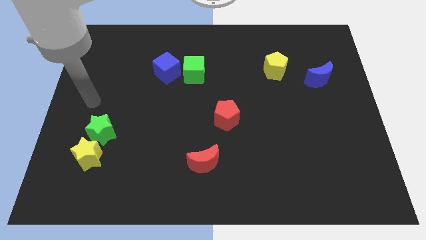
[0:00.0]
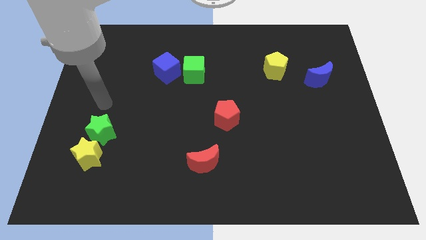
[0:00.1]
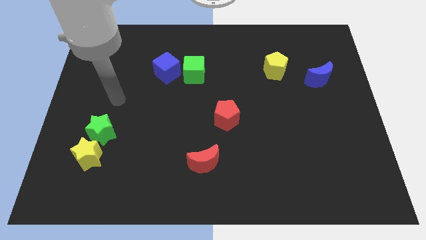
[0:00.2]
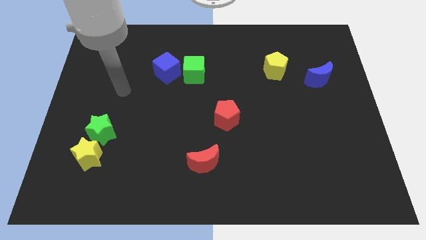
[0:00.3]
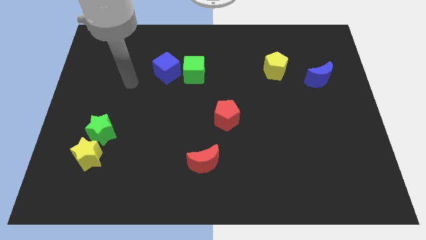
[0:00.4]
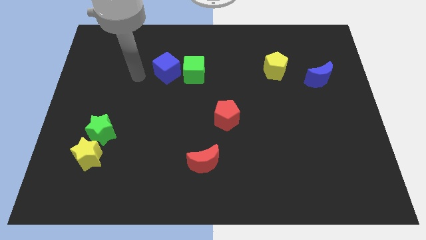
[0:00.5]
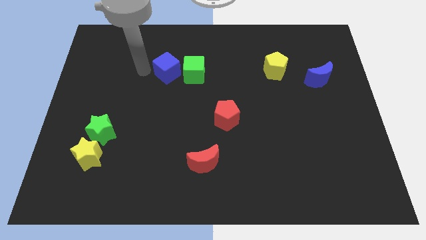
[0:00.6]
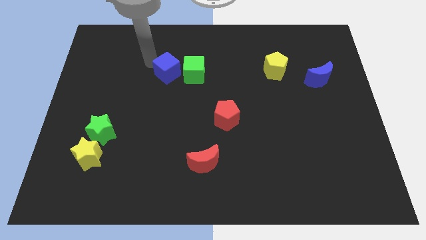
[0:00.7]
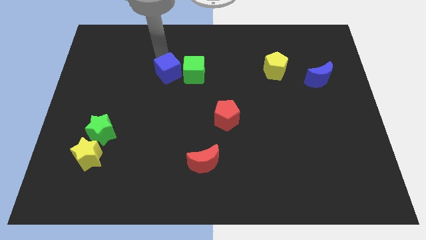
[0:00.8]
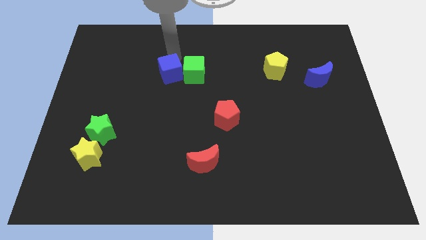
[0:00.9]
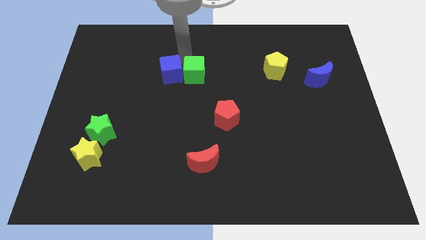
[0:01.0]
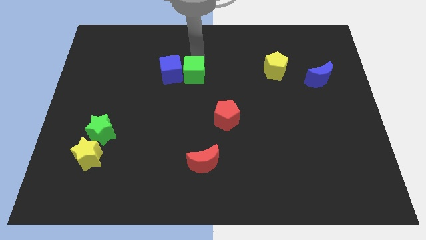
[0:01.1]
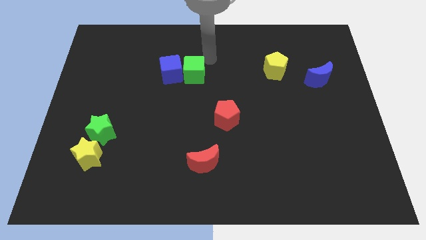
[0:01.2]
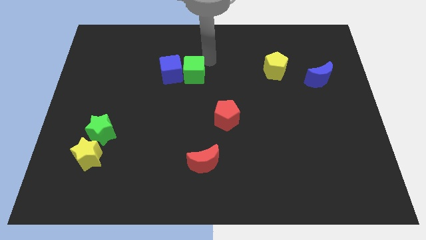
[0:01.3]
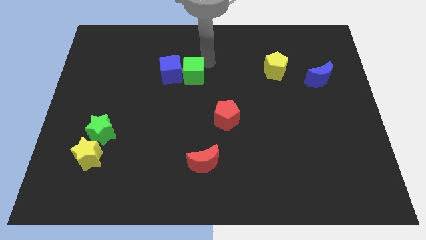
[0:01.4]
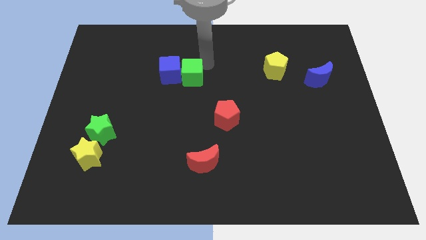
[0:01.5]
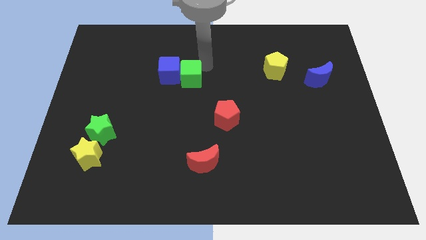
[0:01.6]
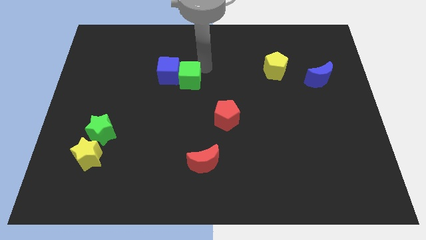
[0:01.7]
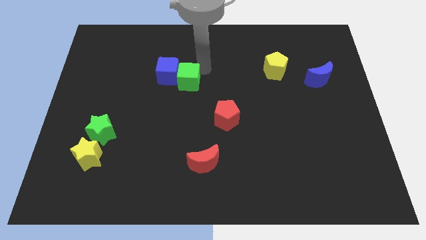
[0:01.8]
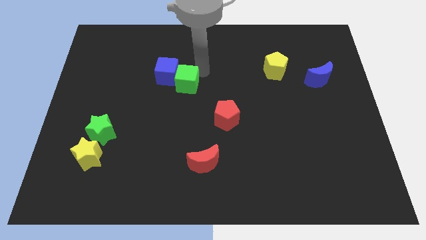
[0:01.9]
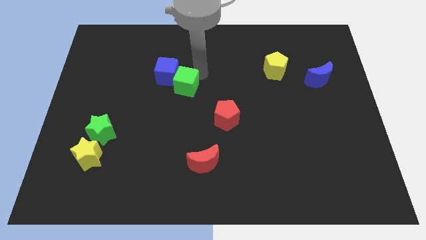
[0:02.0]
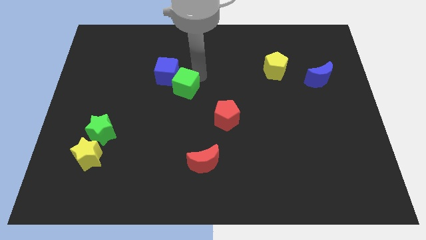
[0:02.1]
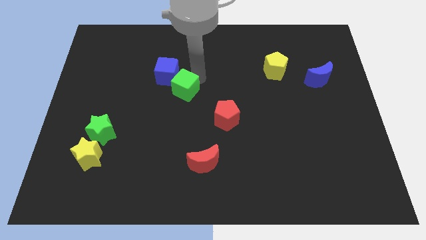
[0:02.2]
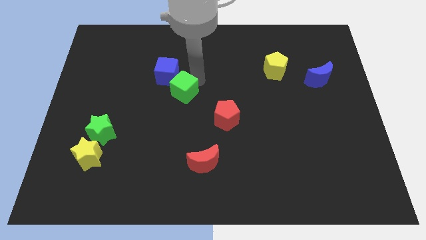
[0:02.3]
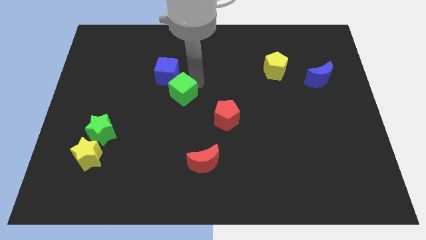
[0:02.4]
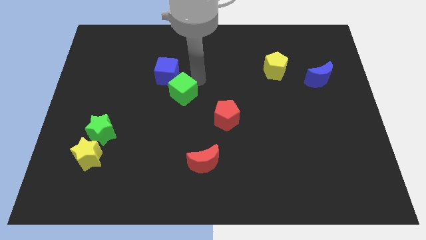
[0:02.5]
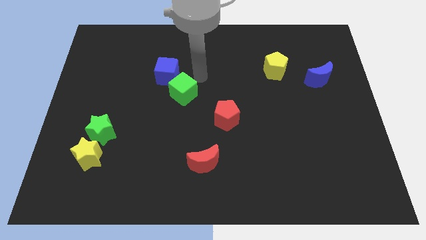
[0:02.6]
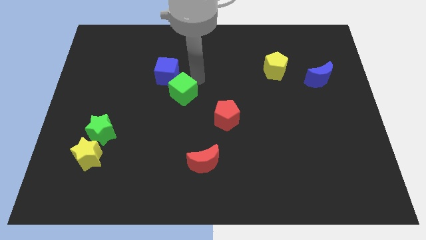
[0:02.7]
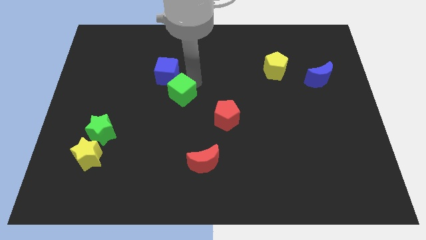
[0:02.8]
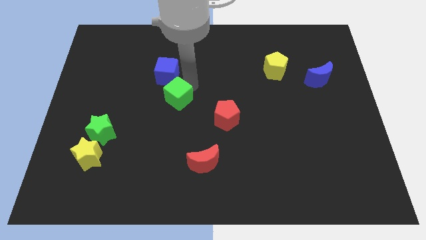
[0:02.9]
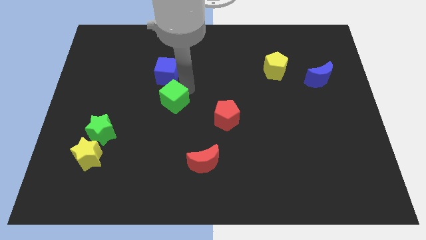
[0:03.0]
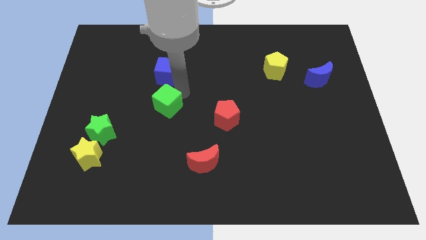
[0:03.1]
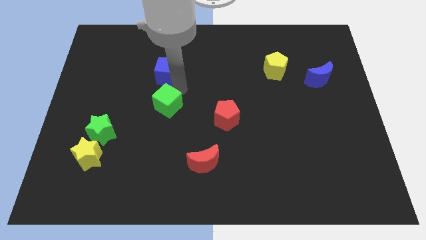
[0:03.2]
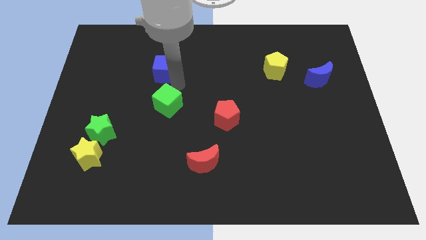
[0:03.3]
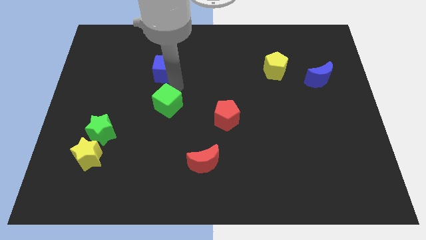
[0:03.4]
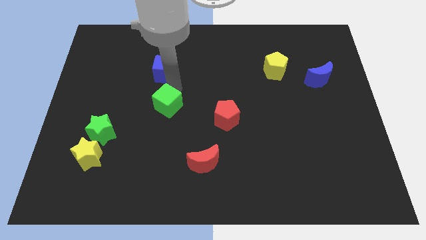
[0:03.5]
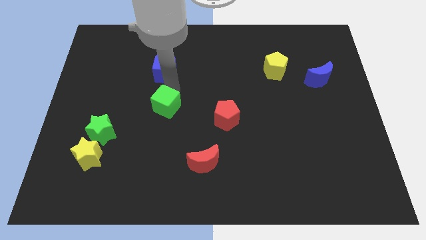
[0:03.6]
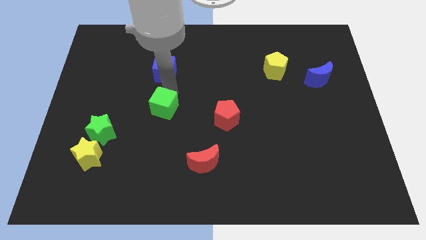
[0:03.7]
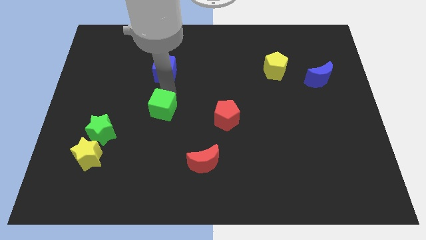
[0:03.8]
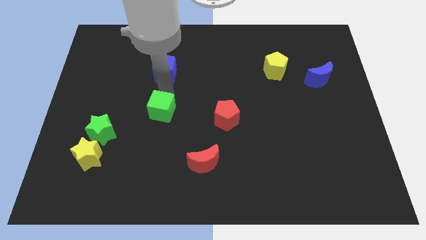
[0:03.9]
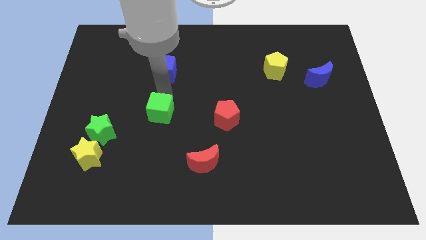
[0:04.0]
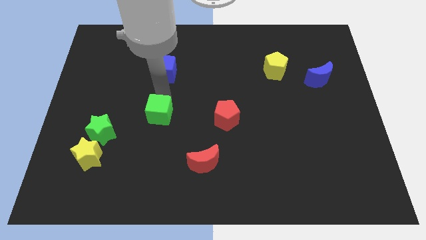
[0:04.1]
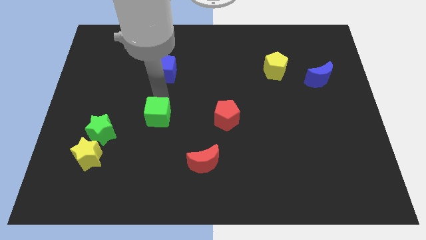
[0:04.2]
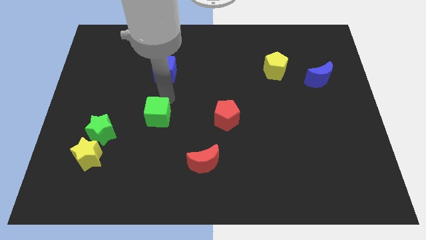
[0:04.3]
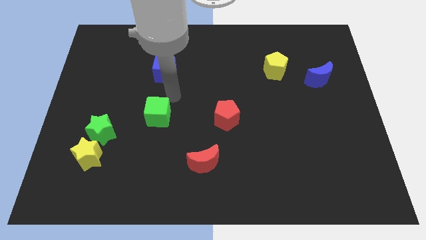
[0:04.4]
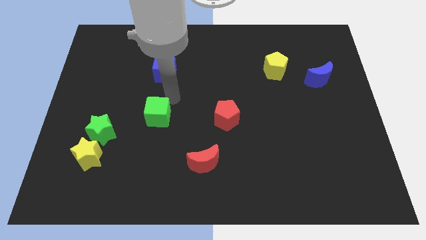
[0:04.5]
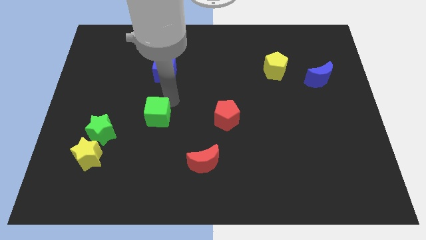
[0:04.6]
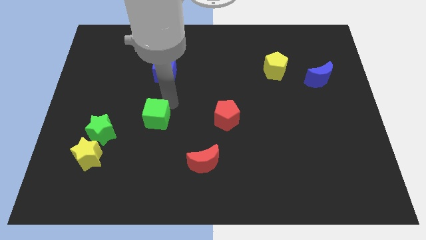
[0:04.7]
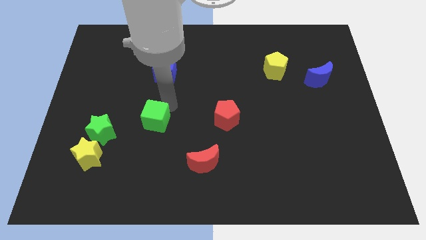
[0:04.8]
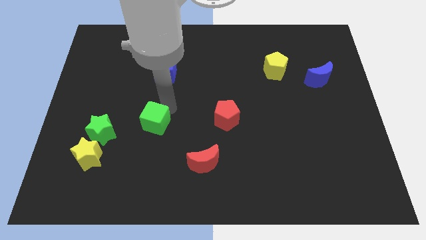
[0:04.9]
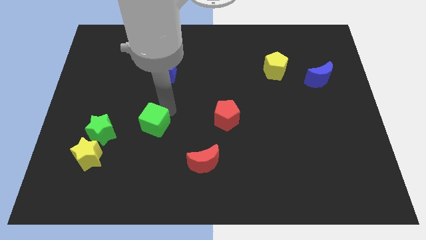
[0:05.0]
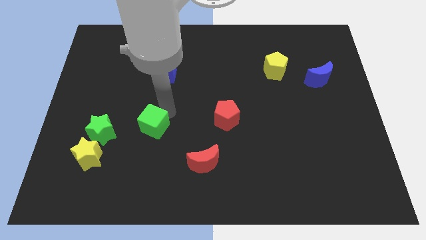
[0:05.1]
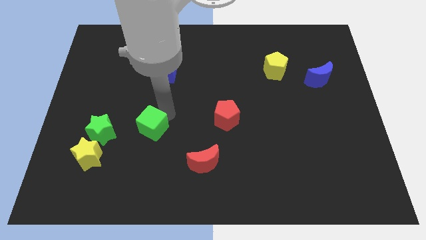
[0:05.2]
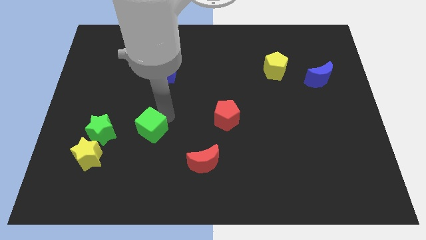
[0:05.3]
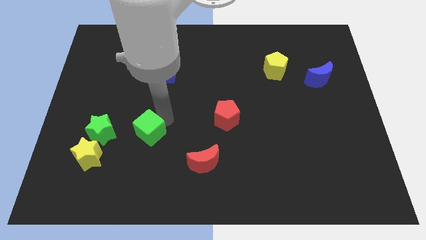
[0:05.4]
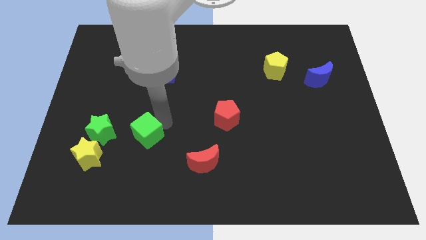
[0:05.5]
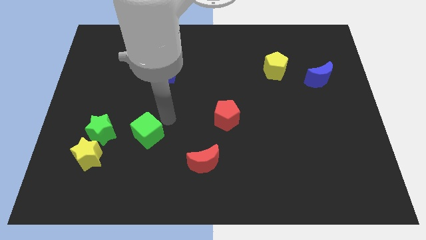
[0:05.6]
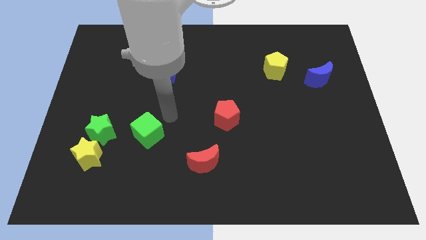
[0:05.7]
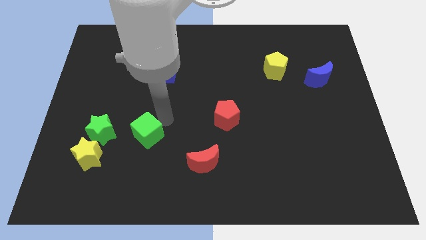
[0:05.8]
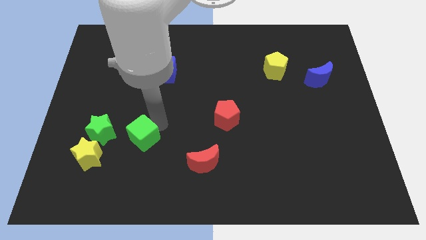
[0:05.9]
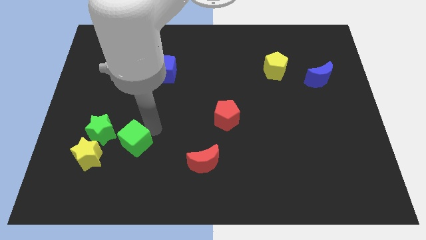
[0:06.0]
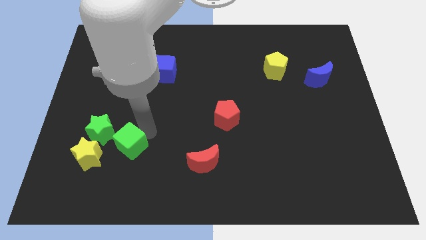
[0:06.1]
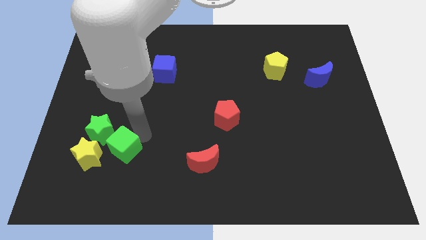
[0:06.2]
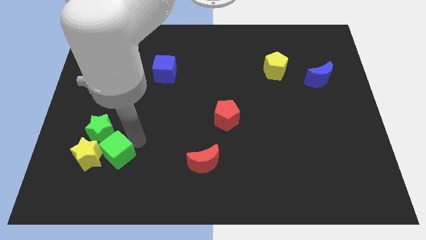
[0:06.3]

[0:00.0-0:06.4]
push the green cube close to the yellow star
